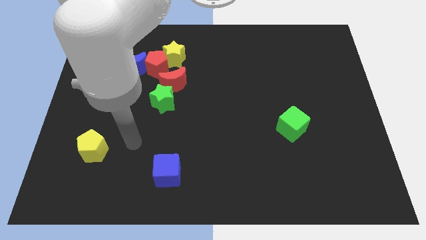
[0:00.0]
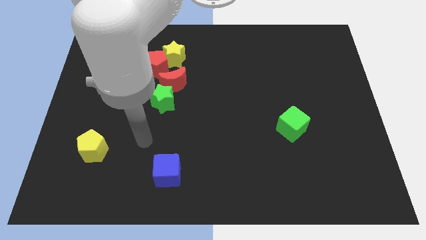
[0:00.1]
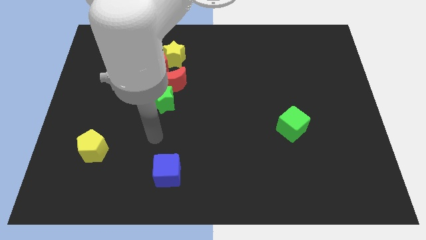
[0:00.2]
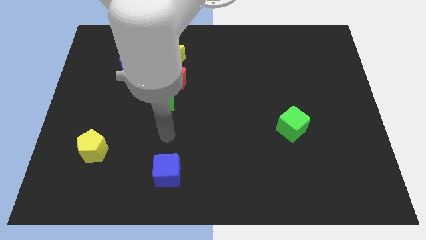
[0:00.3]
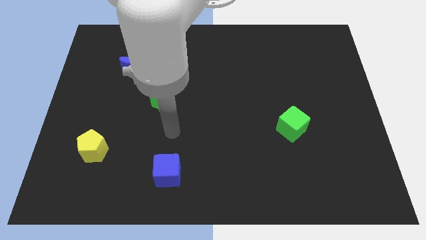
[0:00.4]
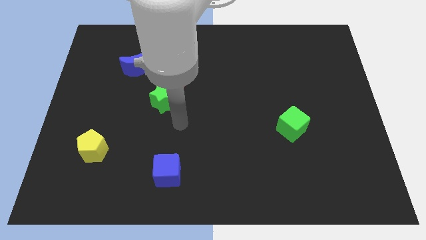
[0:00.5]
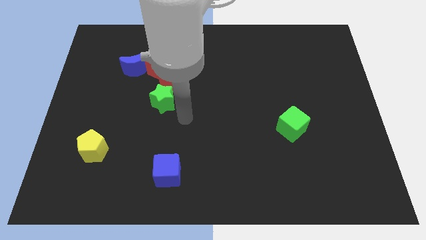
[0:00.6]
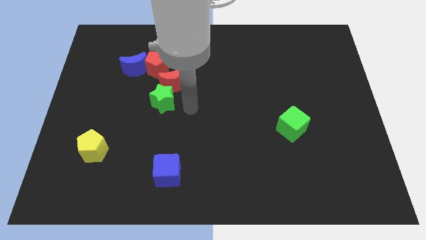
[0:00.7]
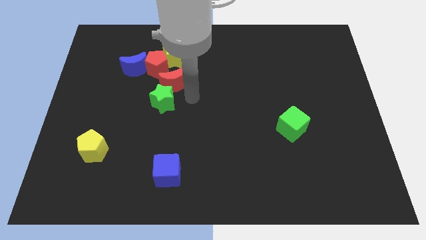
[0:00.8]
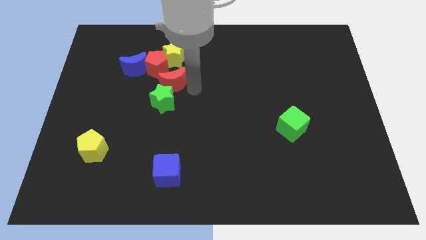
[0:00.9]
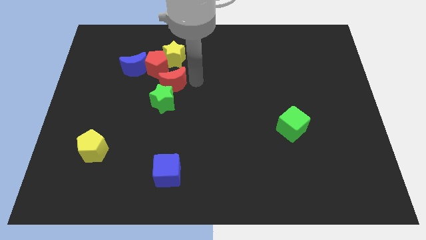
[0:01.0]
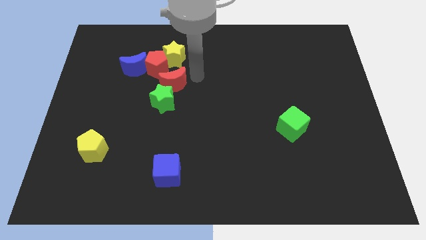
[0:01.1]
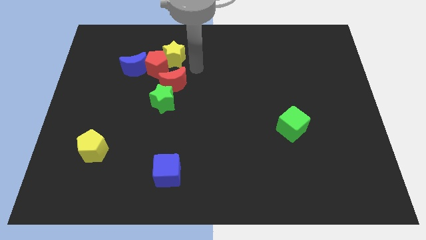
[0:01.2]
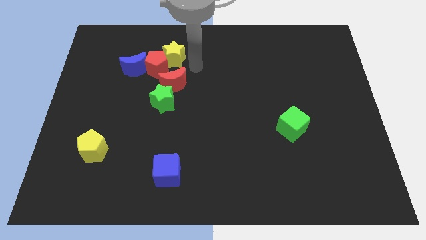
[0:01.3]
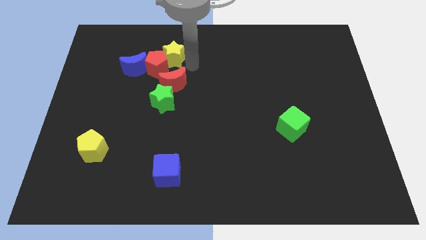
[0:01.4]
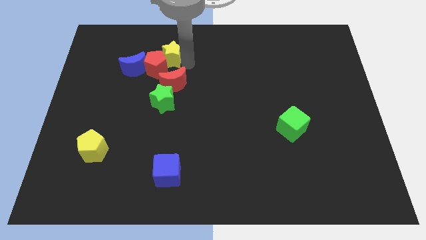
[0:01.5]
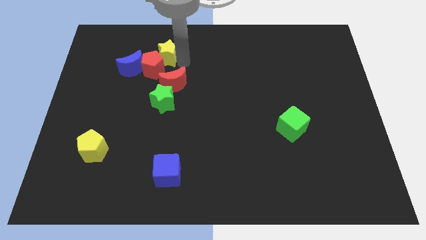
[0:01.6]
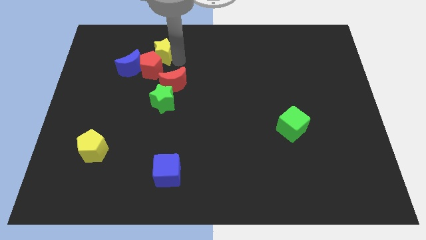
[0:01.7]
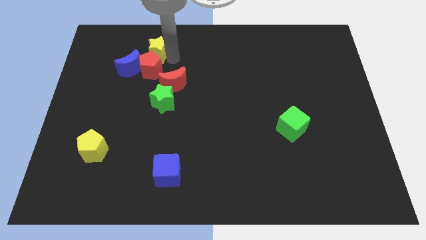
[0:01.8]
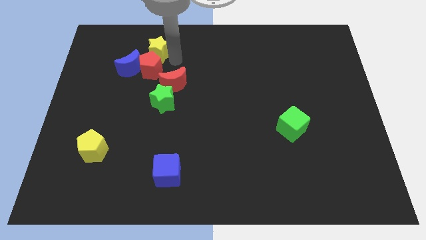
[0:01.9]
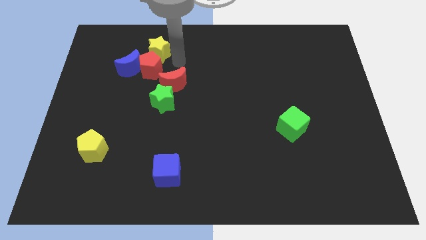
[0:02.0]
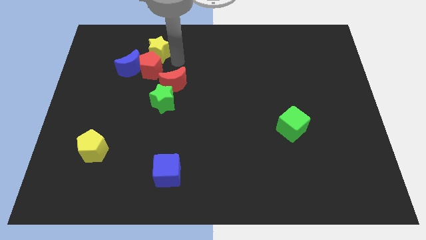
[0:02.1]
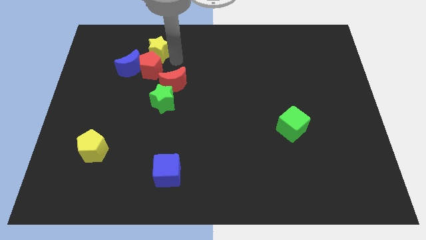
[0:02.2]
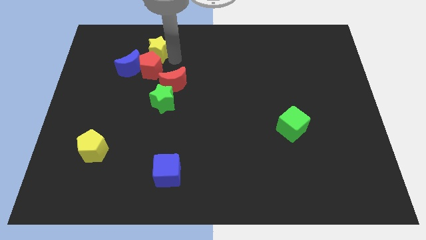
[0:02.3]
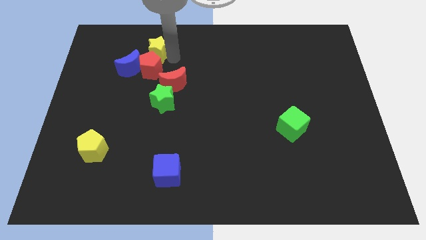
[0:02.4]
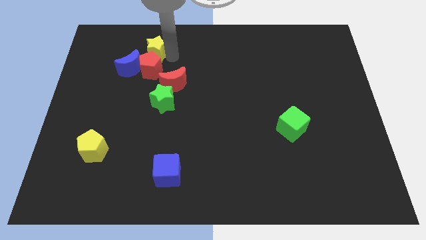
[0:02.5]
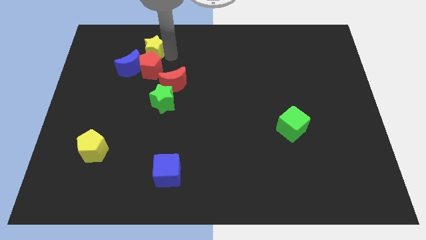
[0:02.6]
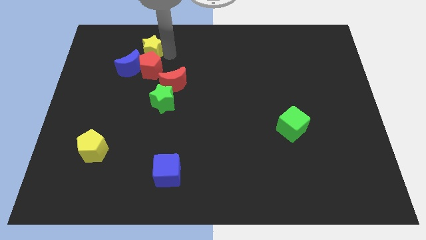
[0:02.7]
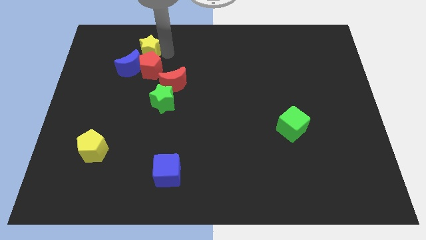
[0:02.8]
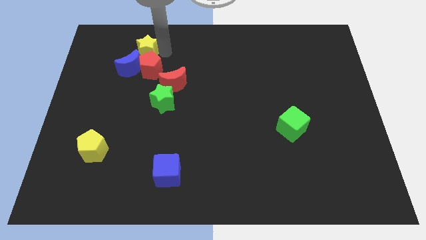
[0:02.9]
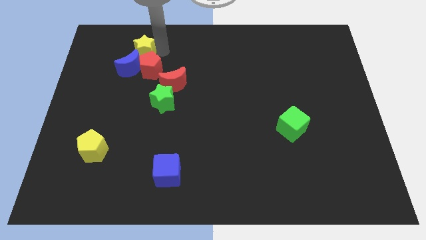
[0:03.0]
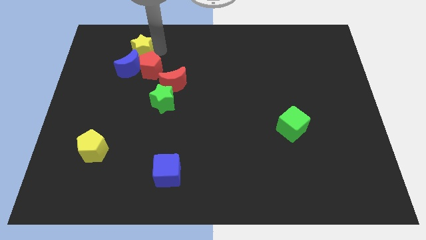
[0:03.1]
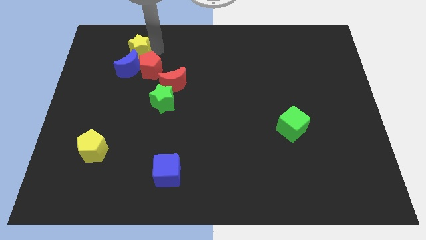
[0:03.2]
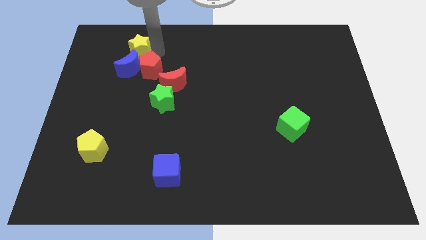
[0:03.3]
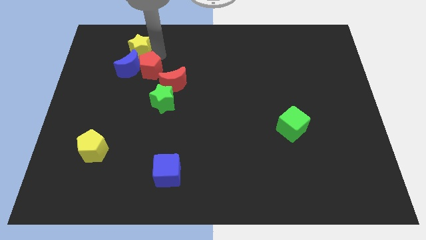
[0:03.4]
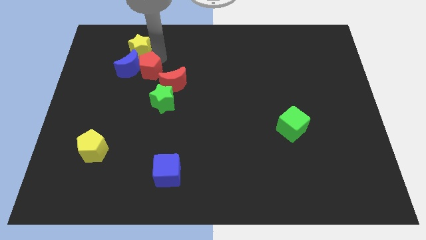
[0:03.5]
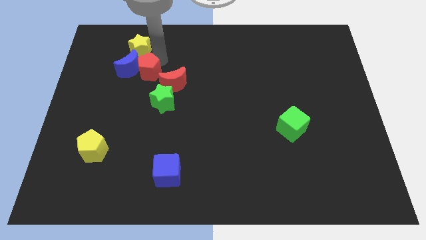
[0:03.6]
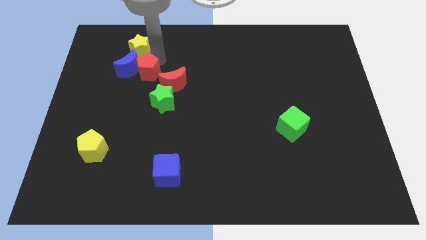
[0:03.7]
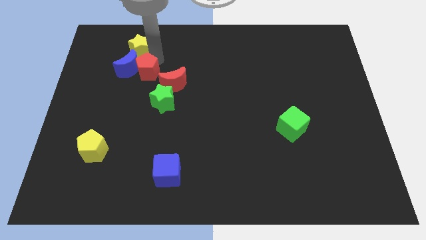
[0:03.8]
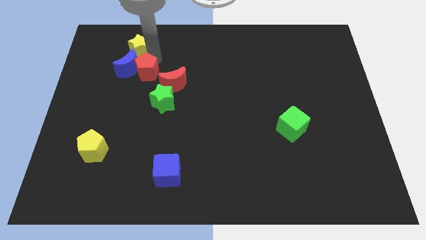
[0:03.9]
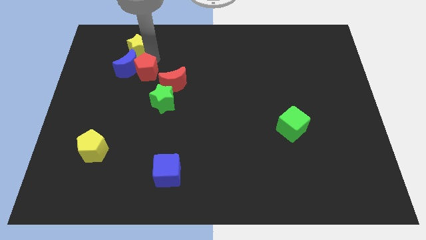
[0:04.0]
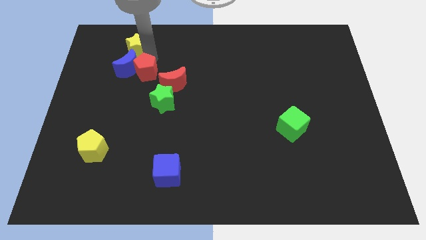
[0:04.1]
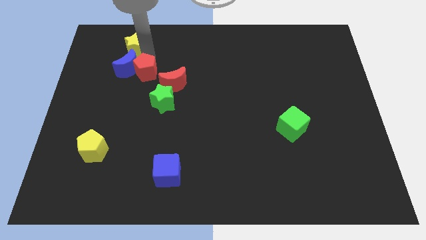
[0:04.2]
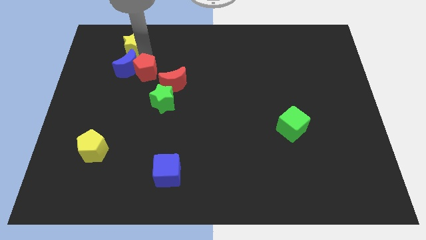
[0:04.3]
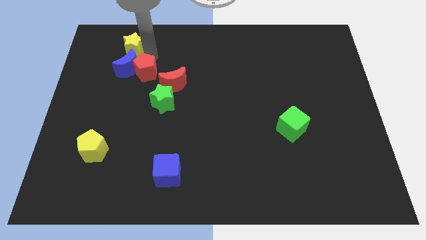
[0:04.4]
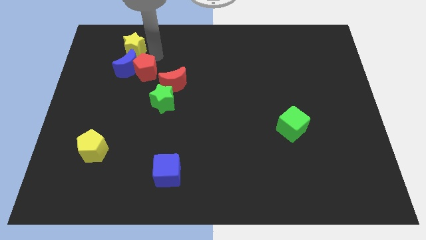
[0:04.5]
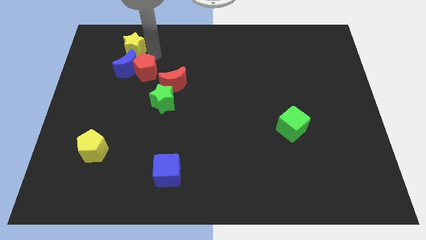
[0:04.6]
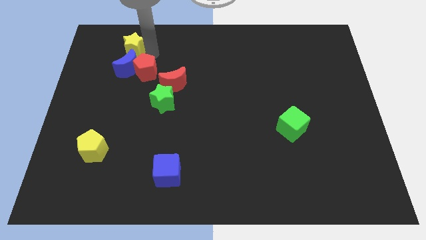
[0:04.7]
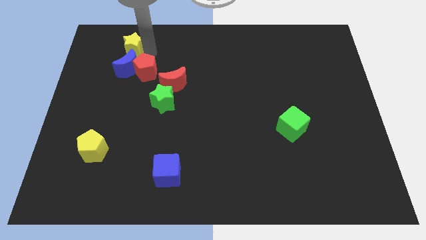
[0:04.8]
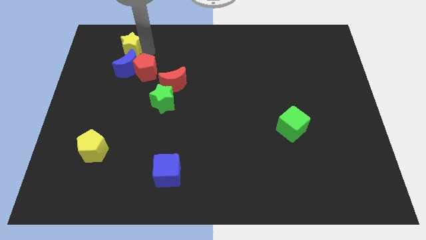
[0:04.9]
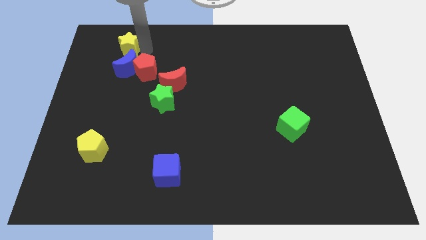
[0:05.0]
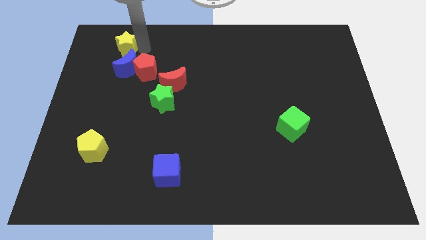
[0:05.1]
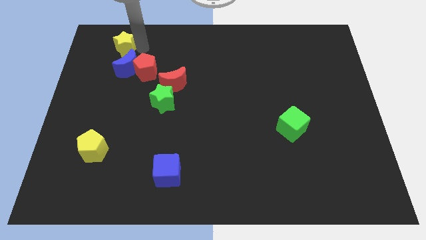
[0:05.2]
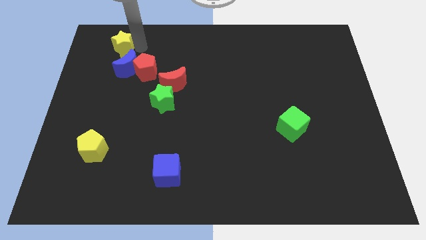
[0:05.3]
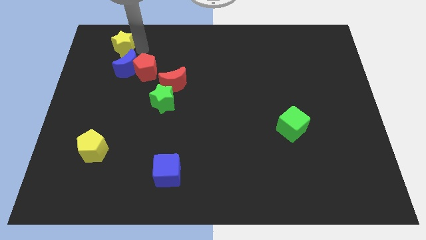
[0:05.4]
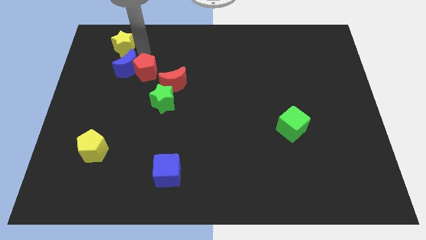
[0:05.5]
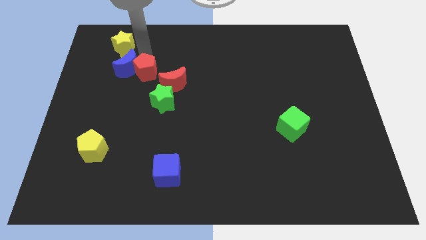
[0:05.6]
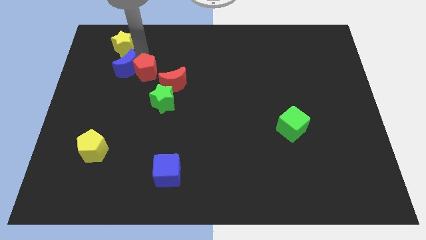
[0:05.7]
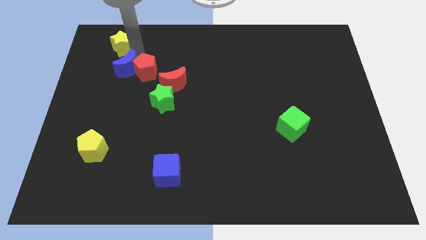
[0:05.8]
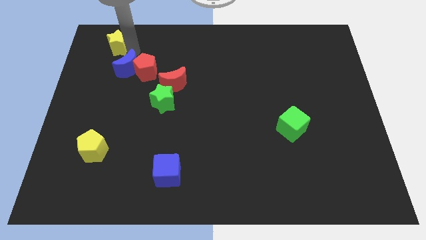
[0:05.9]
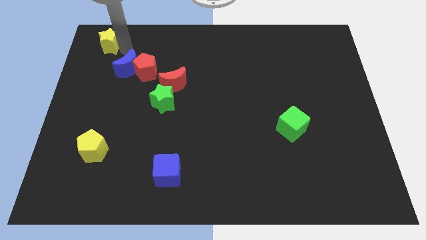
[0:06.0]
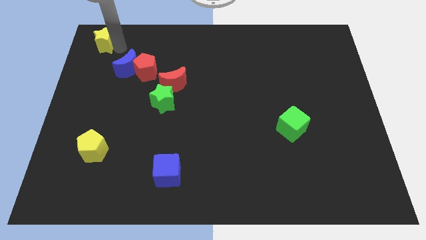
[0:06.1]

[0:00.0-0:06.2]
slide the yellow star to the top left of the board
